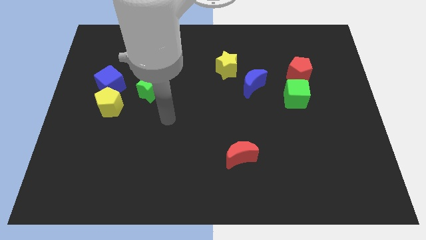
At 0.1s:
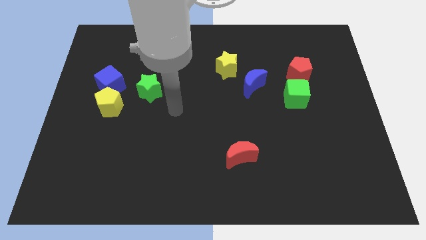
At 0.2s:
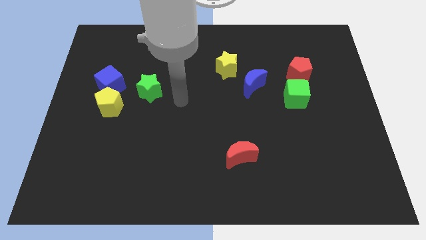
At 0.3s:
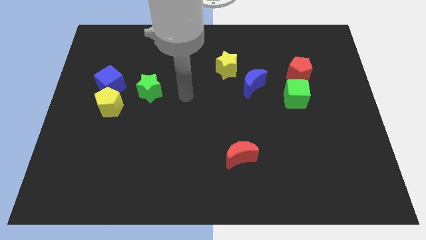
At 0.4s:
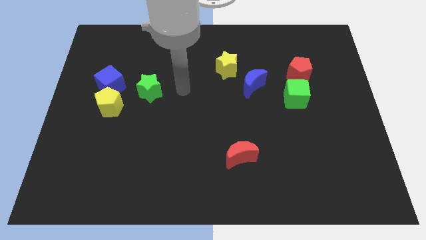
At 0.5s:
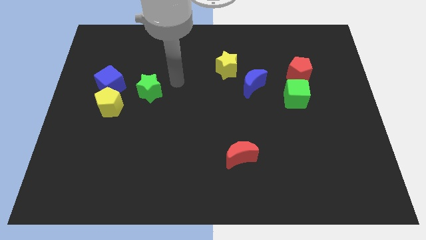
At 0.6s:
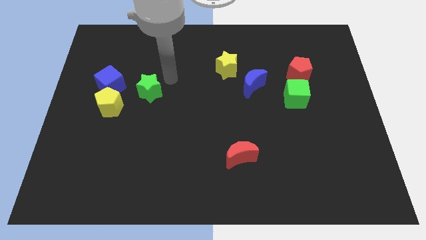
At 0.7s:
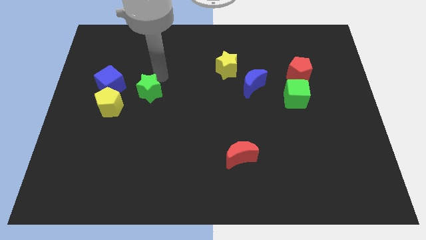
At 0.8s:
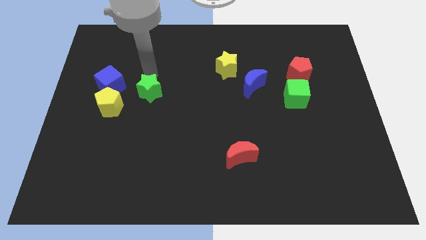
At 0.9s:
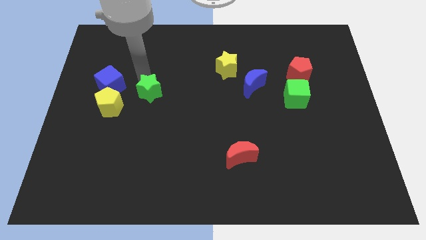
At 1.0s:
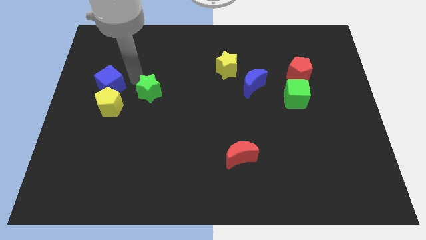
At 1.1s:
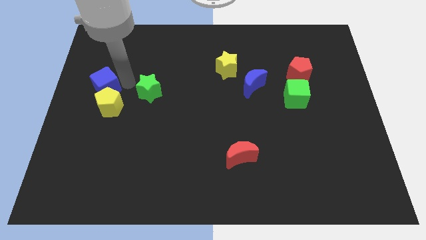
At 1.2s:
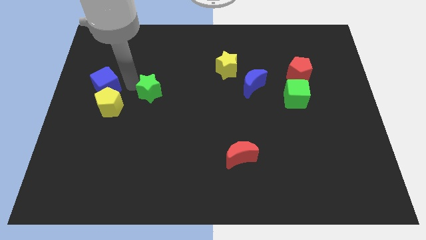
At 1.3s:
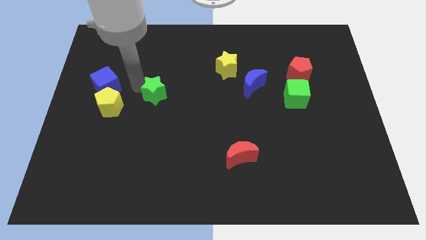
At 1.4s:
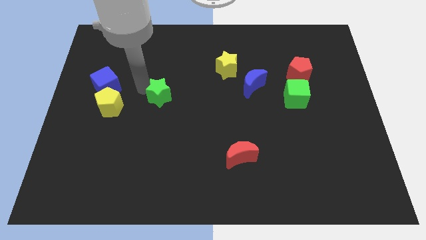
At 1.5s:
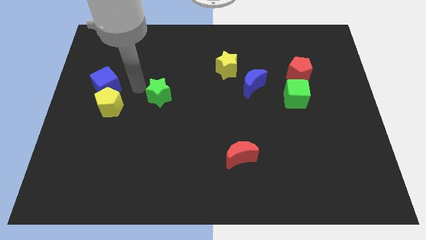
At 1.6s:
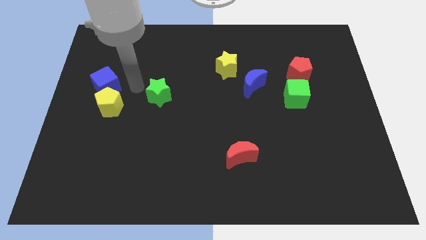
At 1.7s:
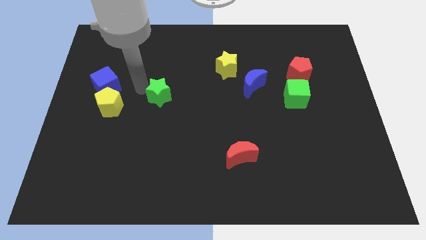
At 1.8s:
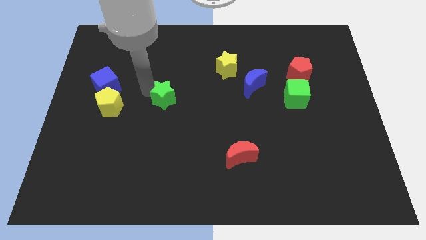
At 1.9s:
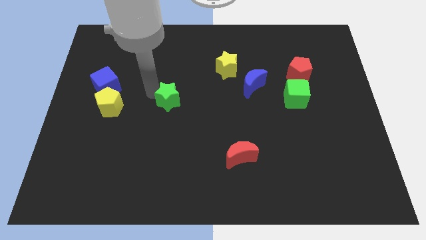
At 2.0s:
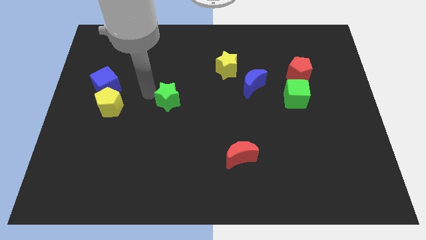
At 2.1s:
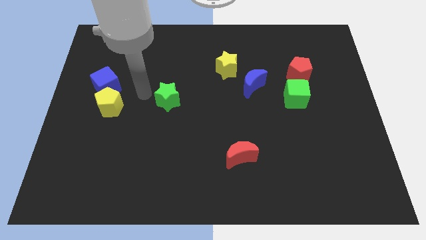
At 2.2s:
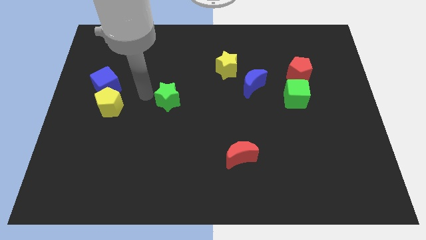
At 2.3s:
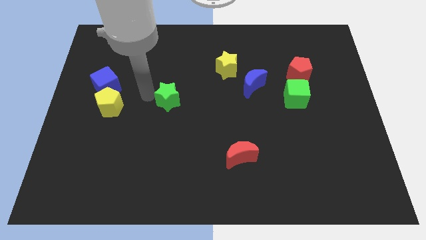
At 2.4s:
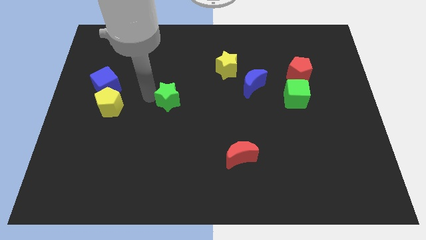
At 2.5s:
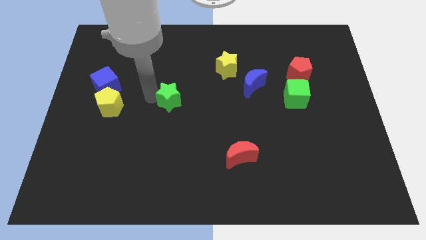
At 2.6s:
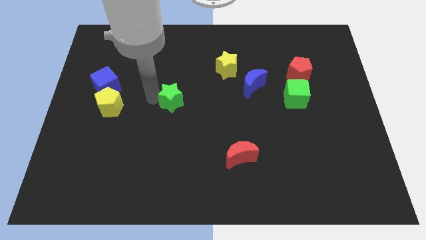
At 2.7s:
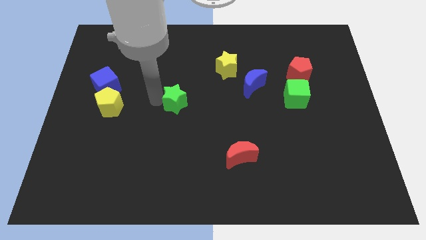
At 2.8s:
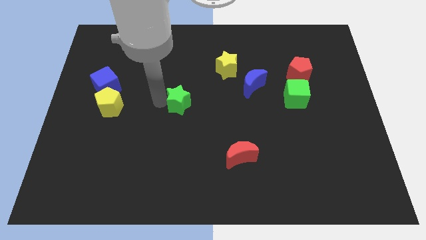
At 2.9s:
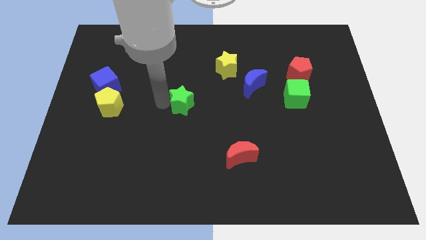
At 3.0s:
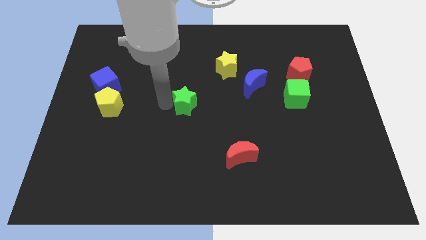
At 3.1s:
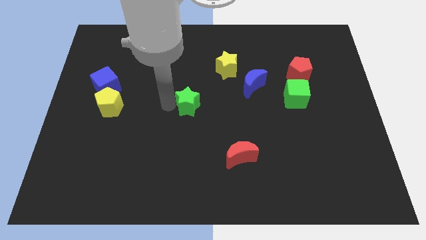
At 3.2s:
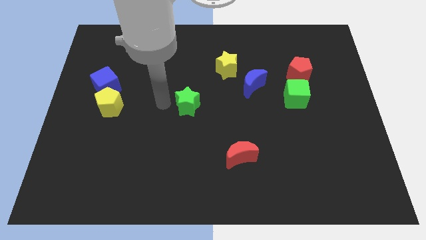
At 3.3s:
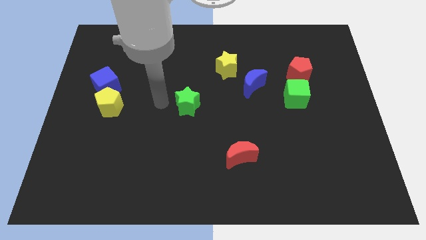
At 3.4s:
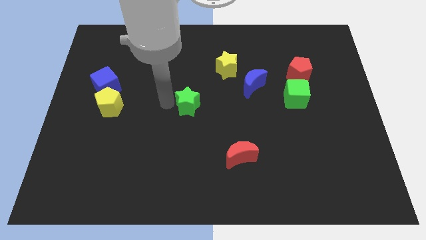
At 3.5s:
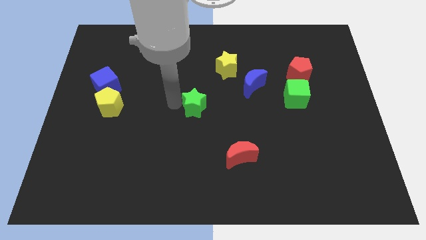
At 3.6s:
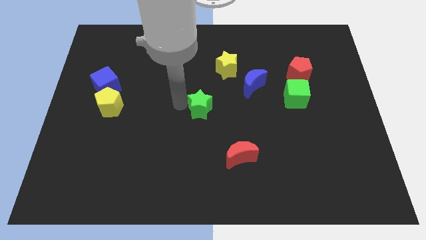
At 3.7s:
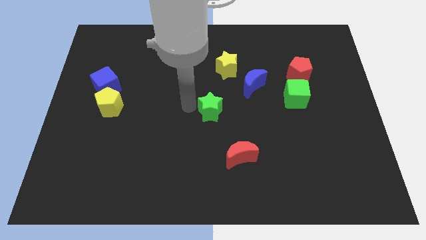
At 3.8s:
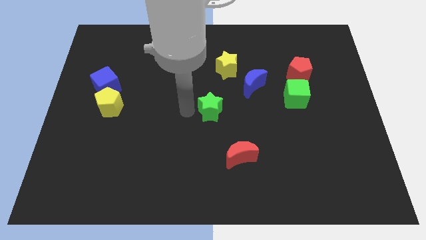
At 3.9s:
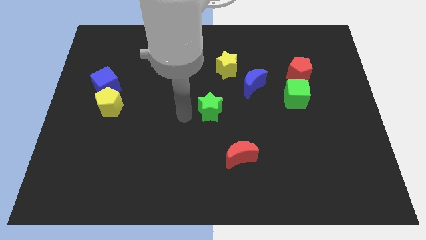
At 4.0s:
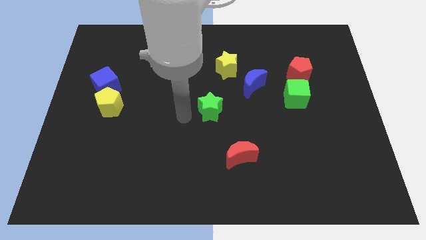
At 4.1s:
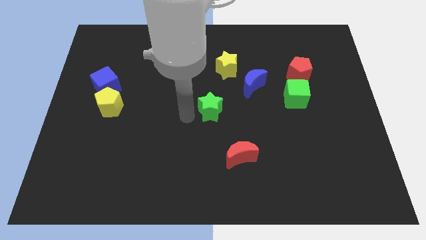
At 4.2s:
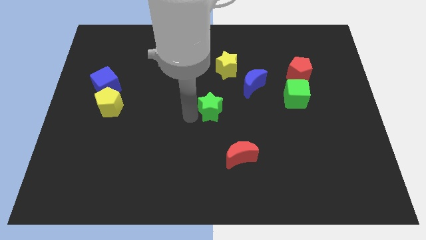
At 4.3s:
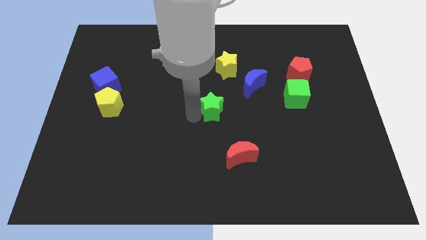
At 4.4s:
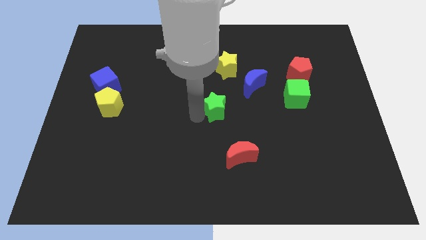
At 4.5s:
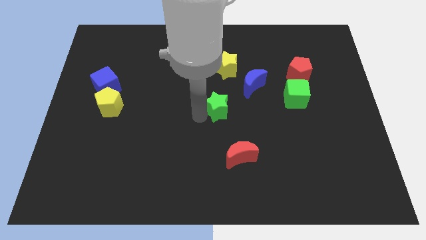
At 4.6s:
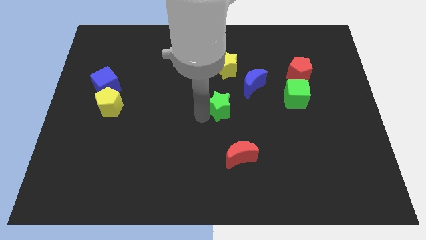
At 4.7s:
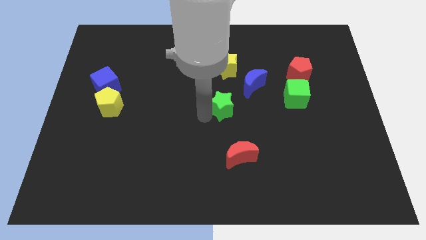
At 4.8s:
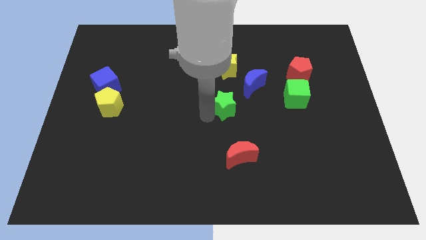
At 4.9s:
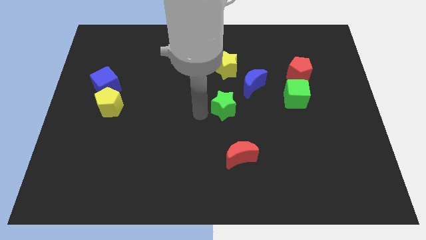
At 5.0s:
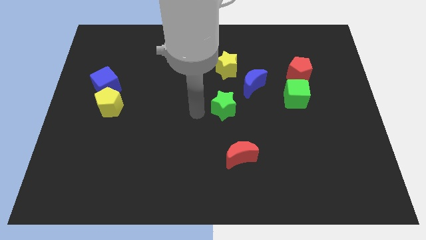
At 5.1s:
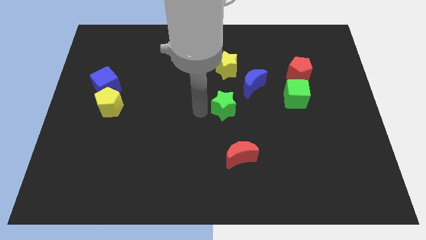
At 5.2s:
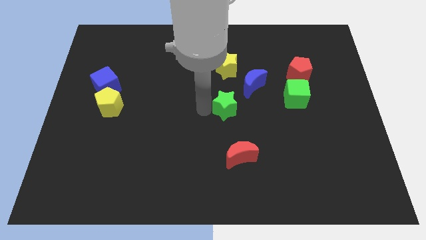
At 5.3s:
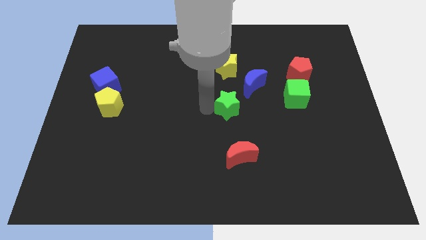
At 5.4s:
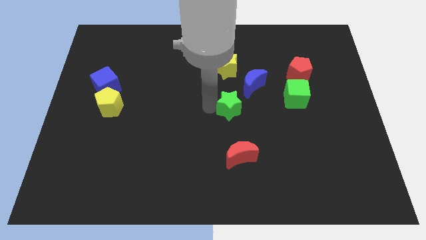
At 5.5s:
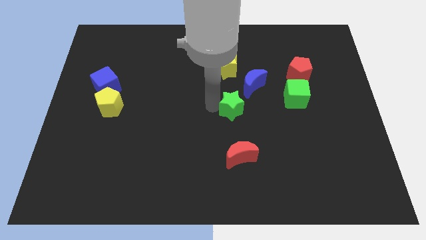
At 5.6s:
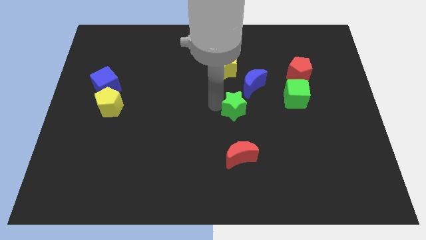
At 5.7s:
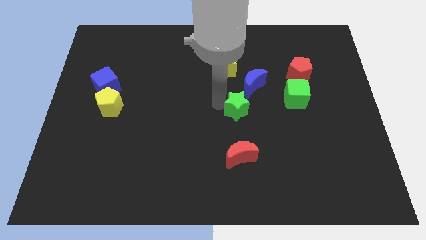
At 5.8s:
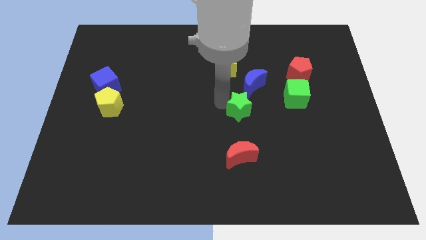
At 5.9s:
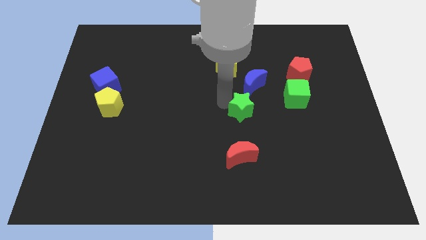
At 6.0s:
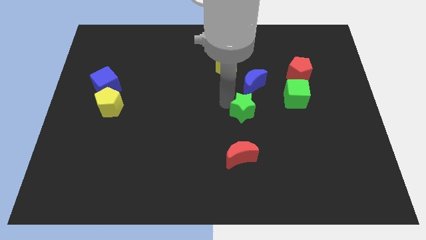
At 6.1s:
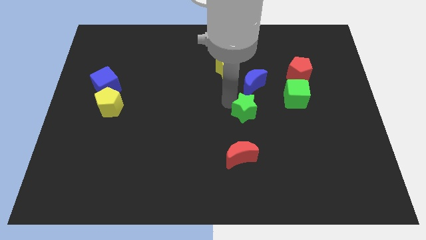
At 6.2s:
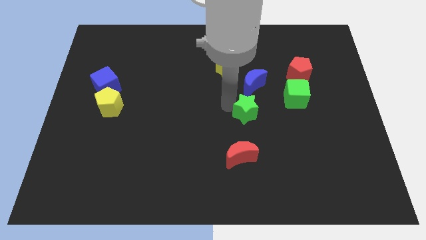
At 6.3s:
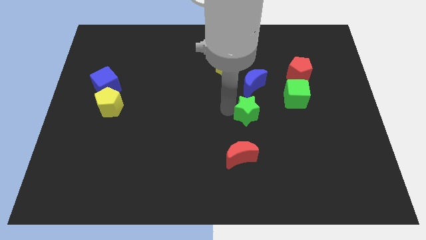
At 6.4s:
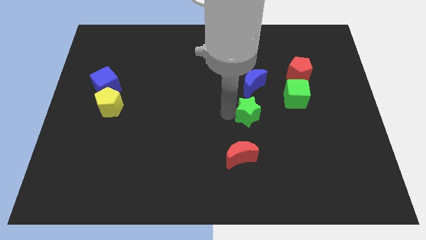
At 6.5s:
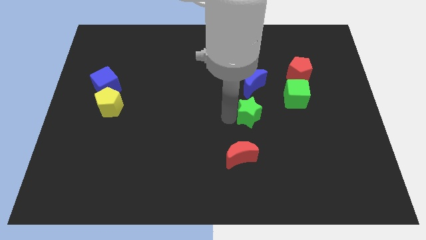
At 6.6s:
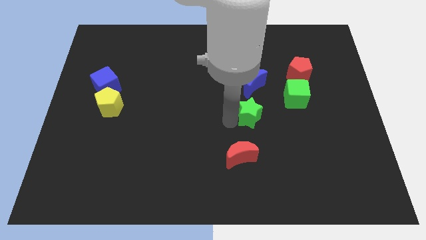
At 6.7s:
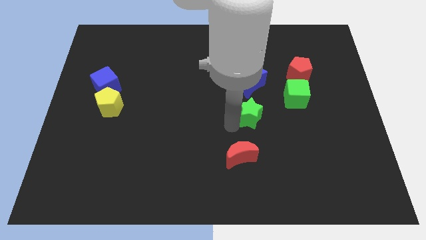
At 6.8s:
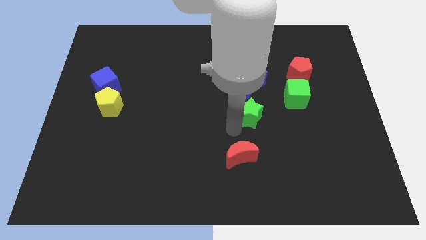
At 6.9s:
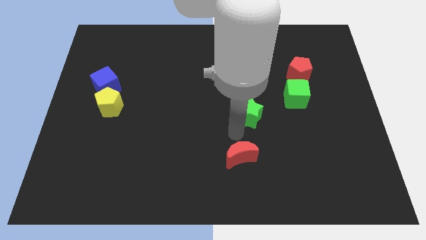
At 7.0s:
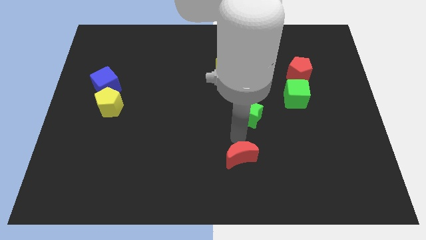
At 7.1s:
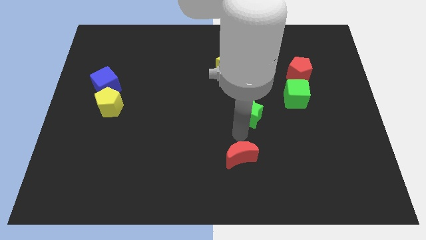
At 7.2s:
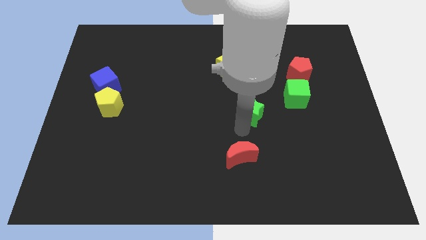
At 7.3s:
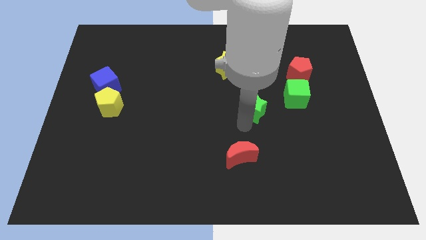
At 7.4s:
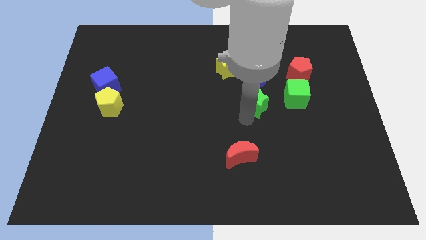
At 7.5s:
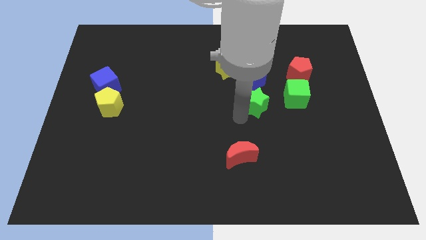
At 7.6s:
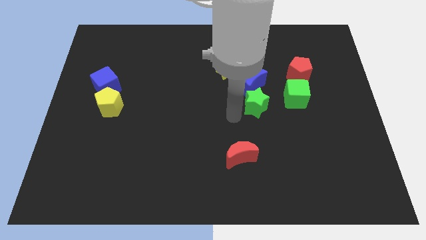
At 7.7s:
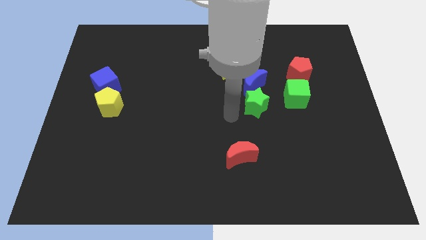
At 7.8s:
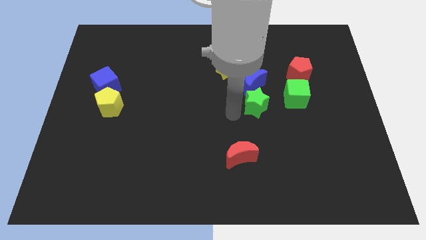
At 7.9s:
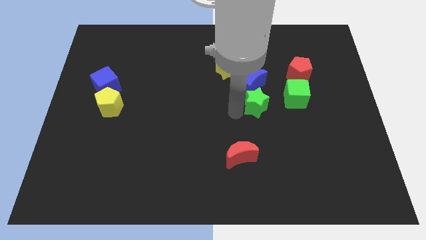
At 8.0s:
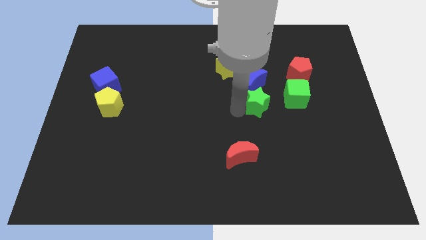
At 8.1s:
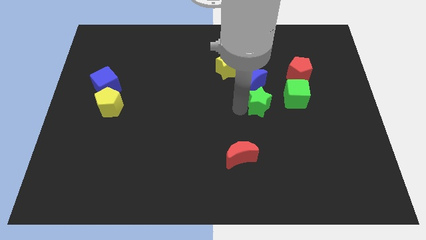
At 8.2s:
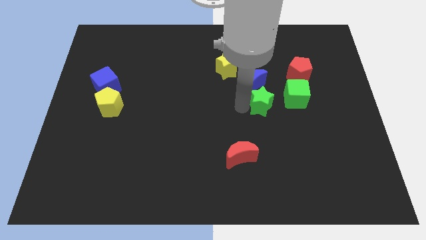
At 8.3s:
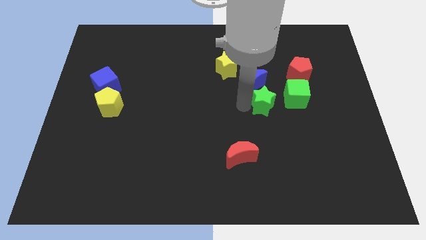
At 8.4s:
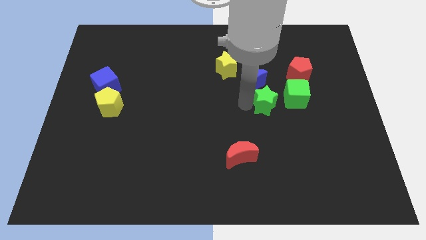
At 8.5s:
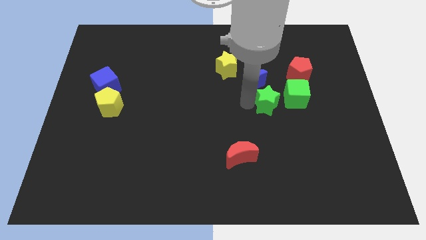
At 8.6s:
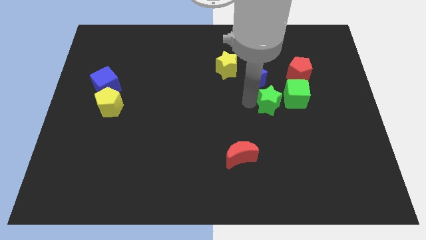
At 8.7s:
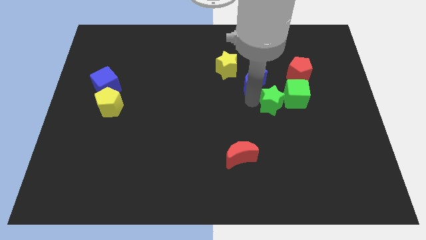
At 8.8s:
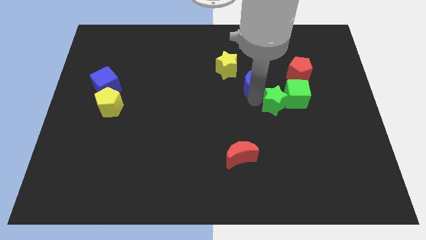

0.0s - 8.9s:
put the green star to the green cube
